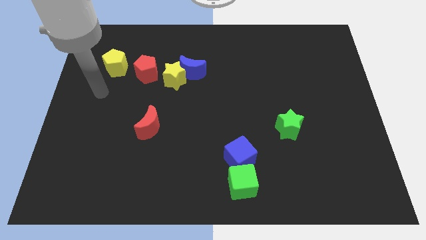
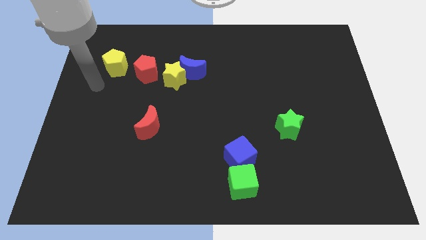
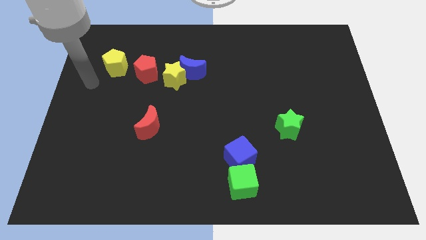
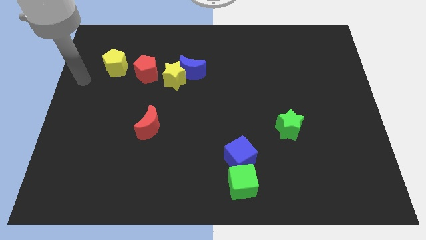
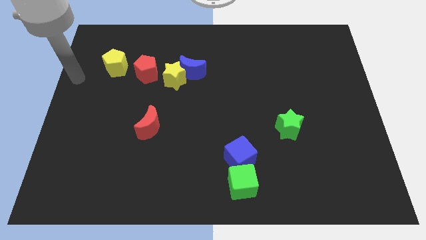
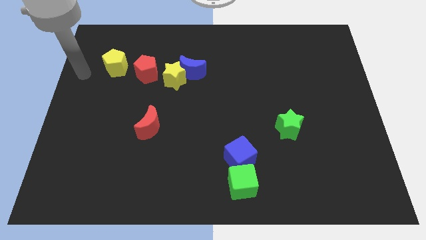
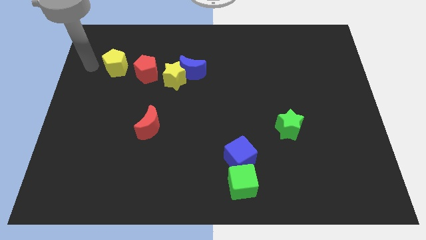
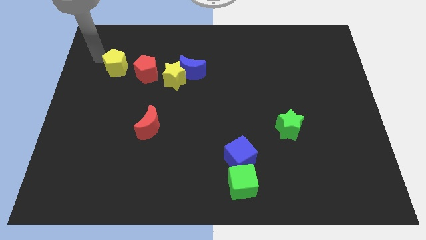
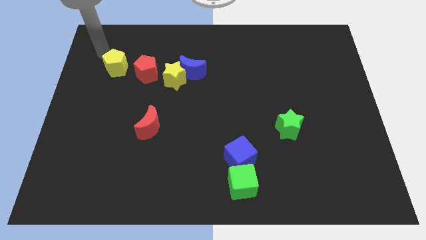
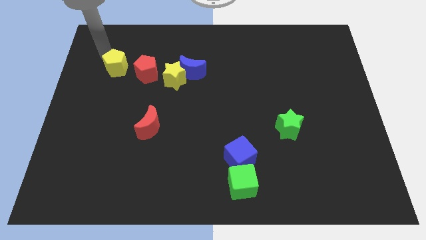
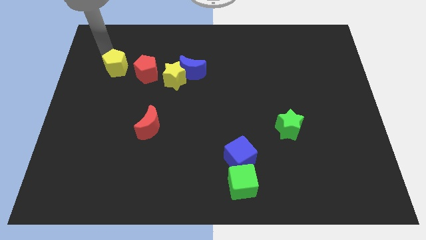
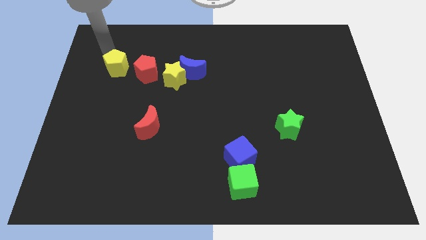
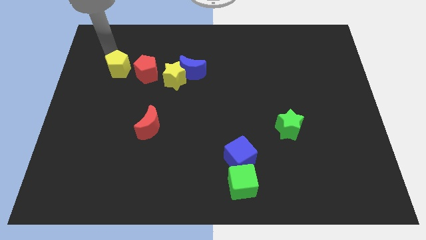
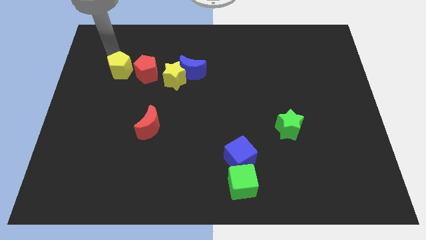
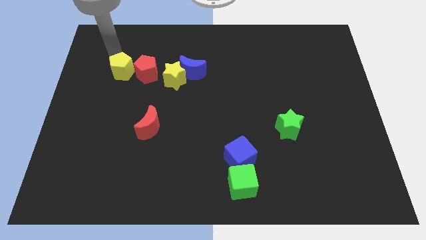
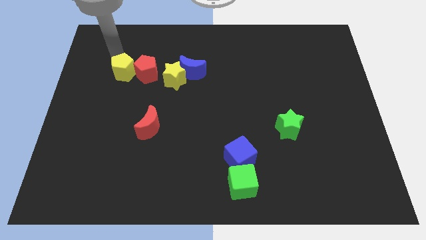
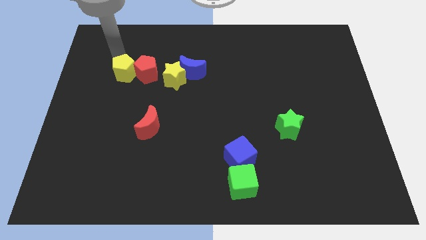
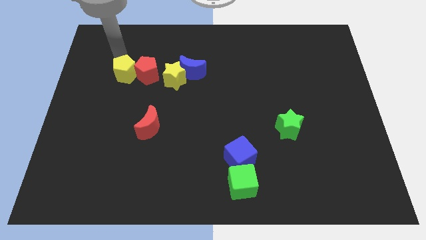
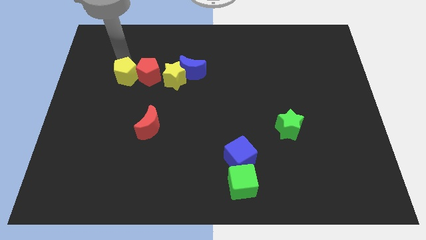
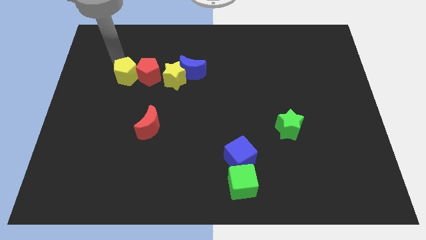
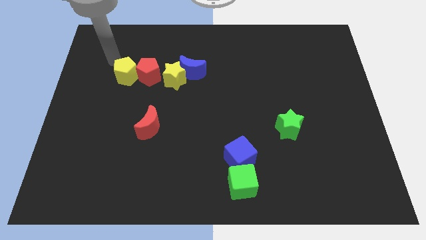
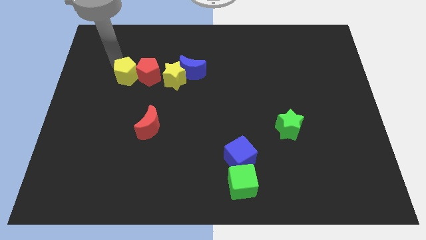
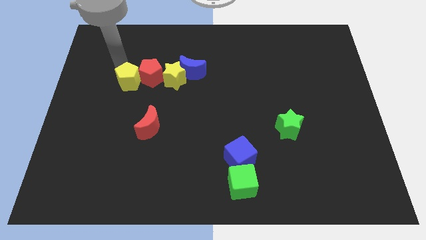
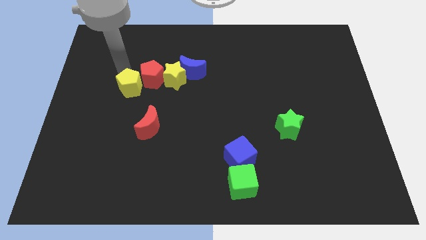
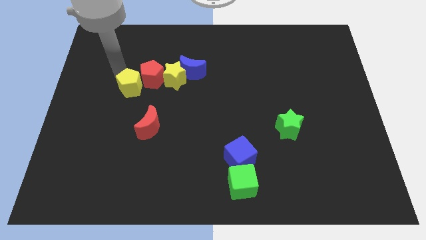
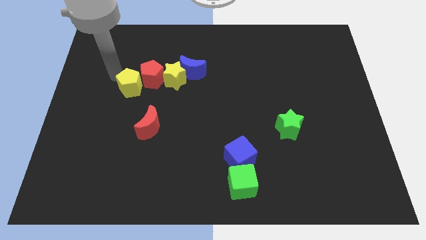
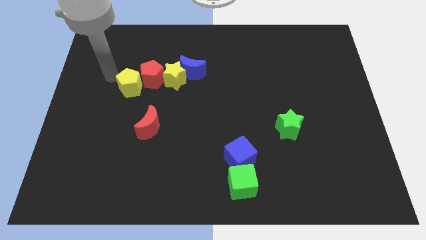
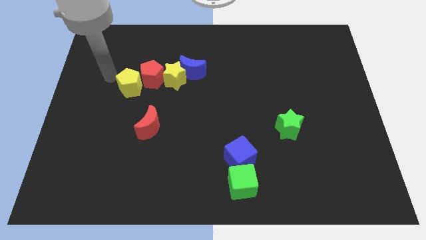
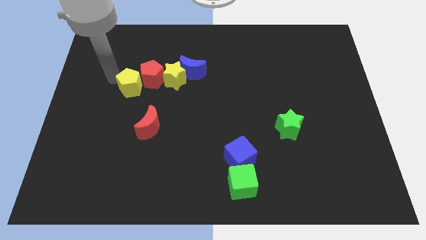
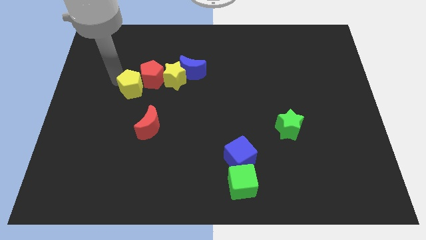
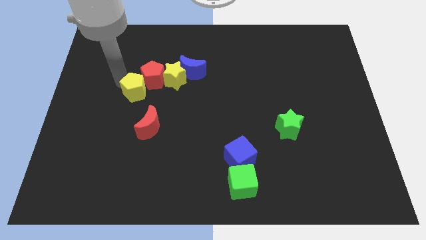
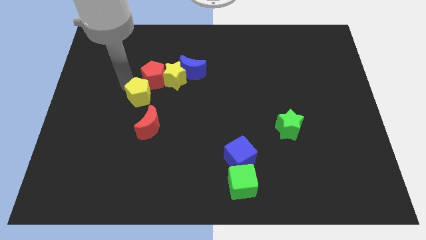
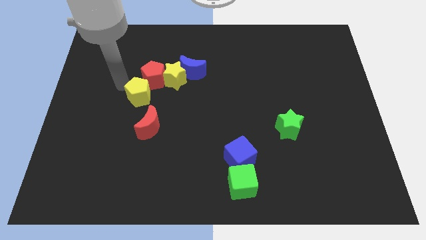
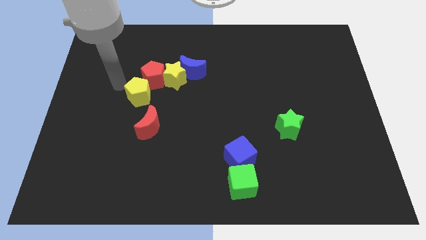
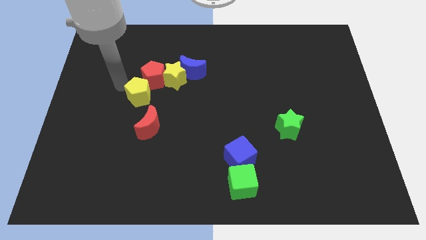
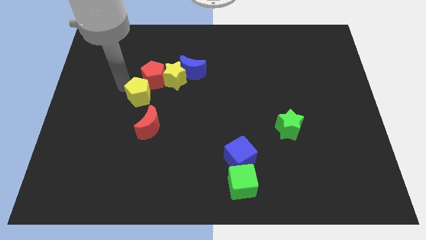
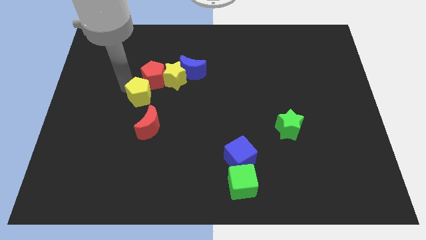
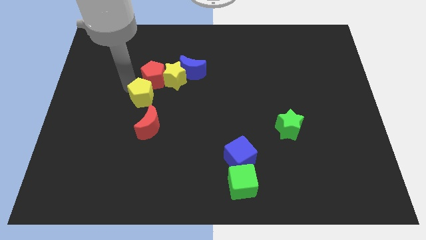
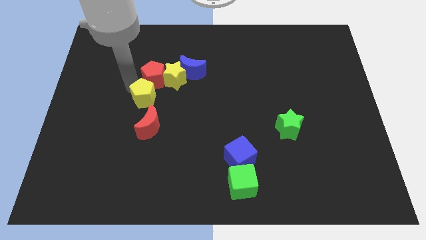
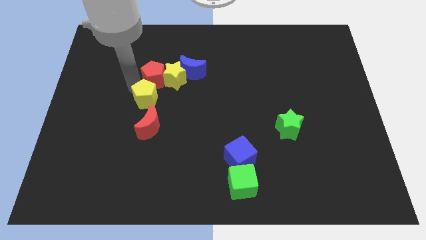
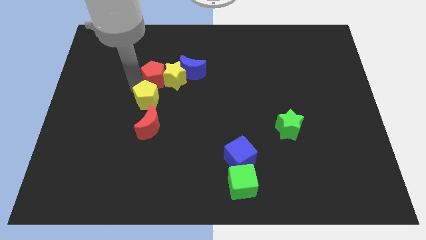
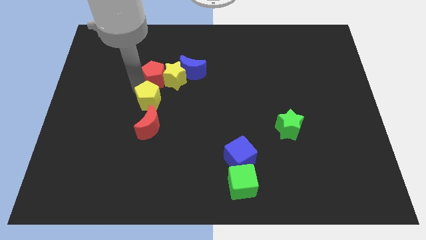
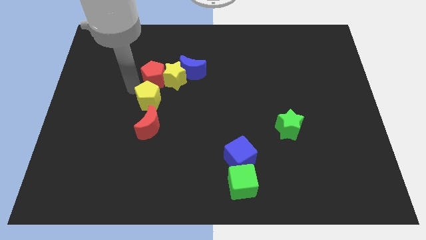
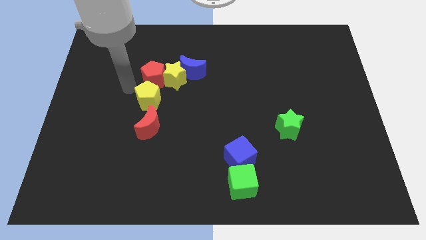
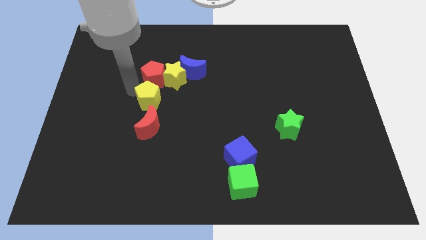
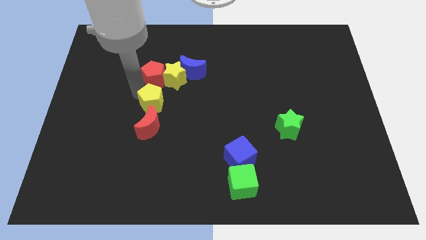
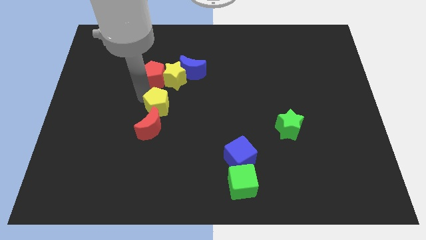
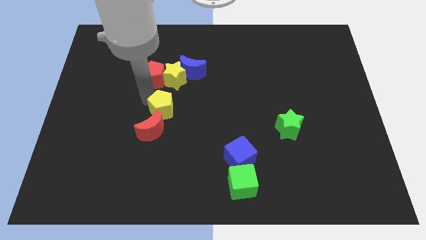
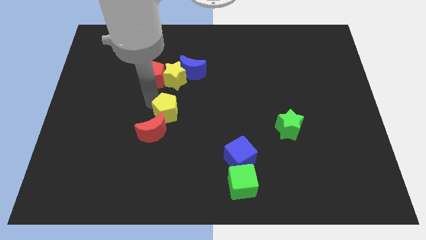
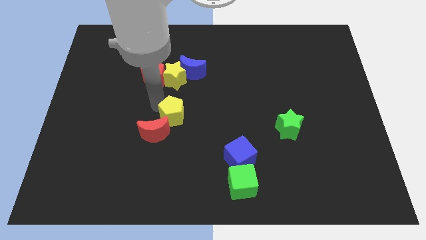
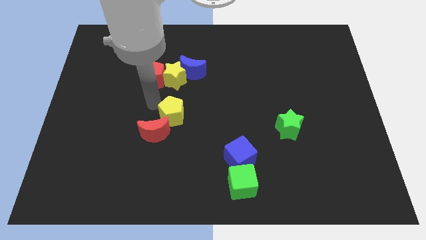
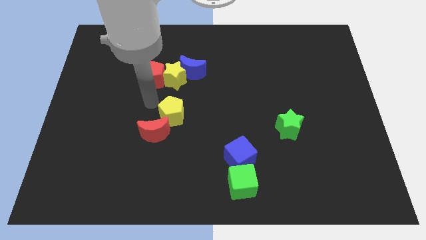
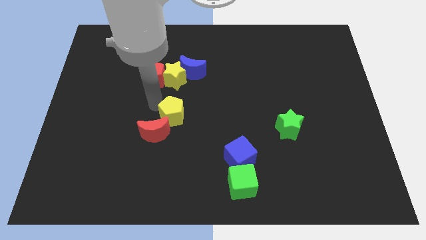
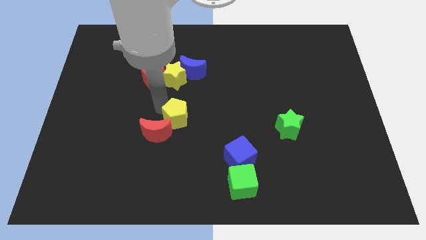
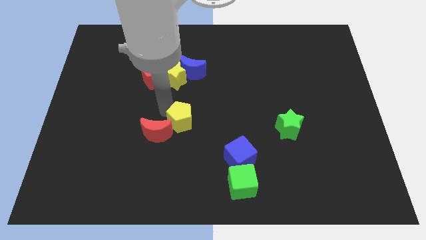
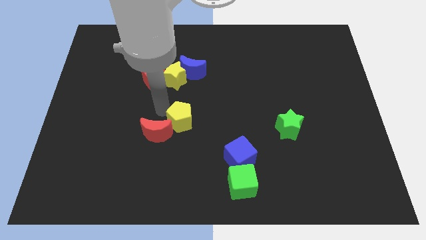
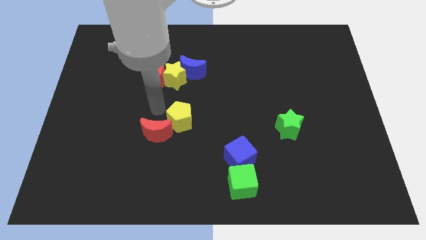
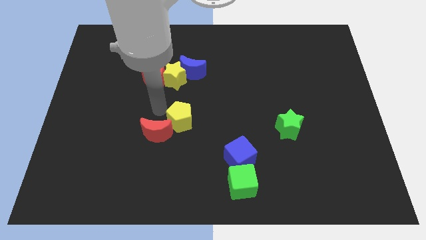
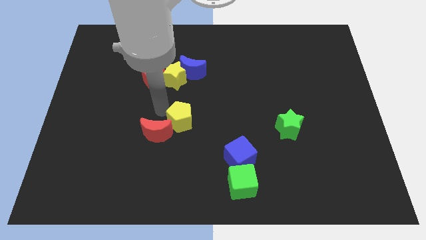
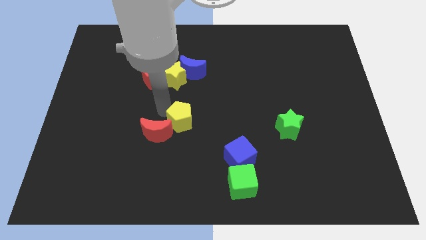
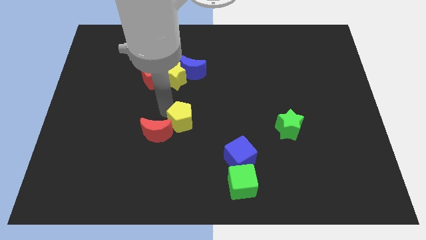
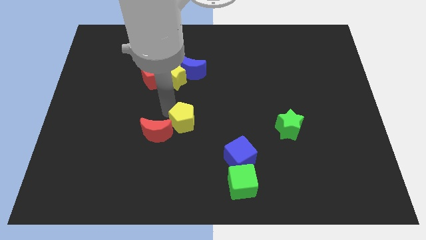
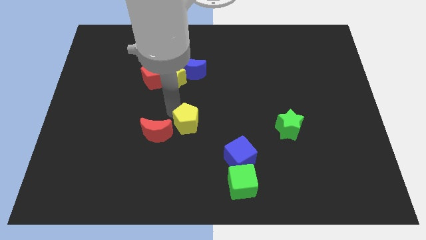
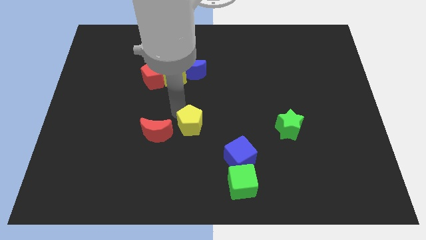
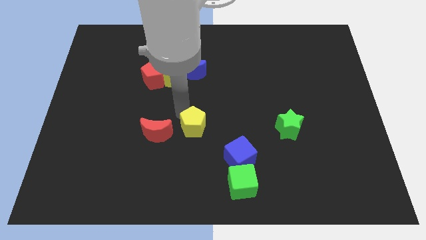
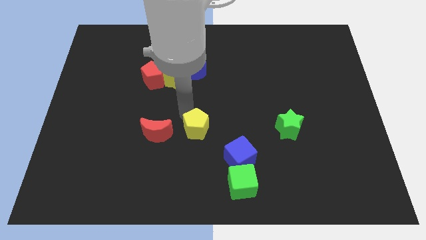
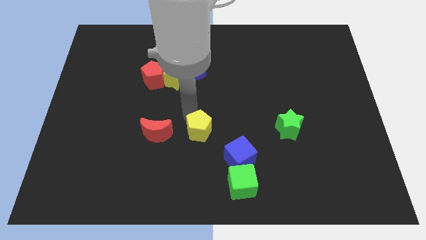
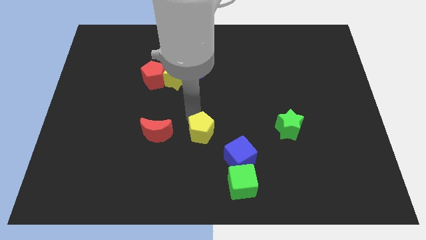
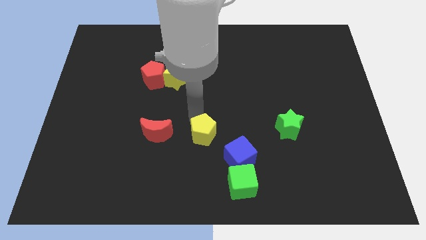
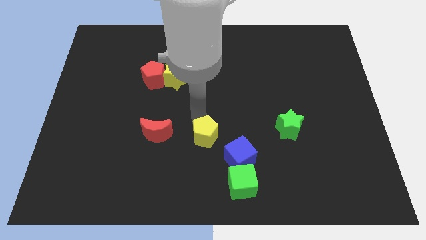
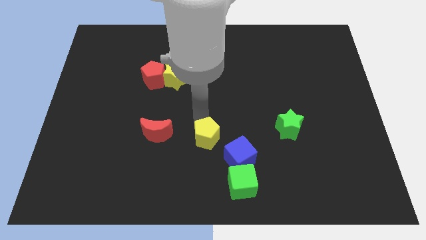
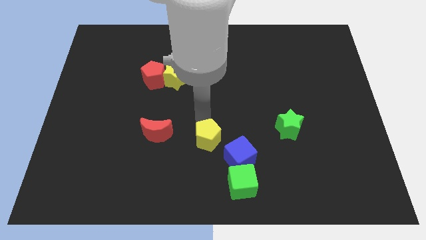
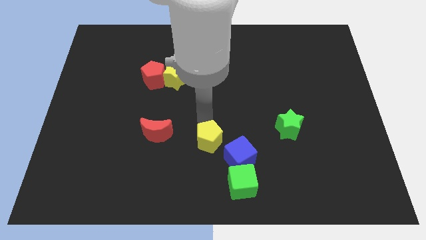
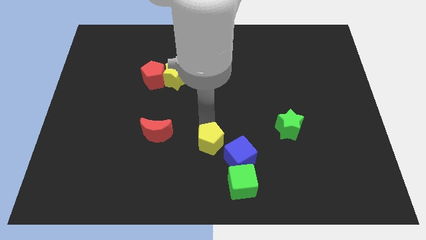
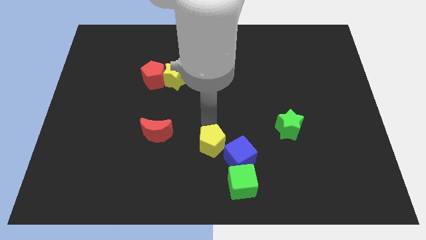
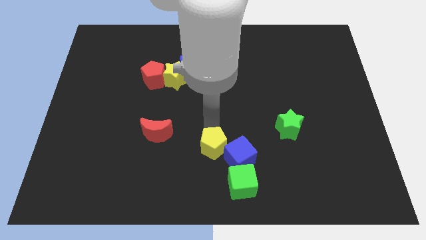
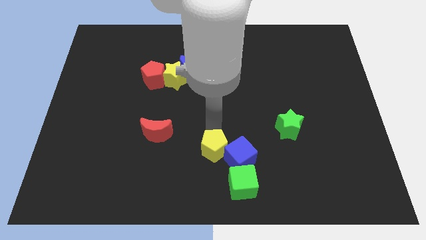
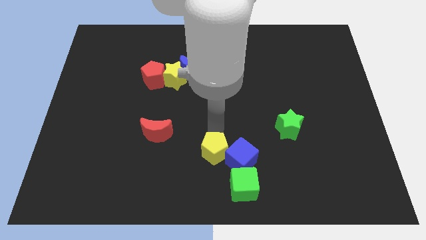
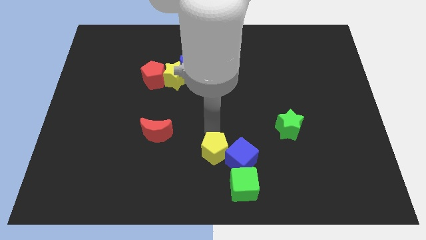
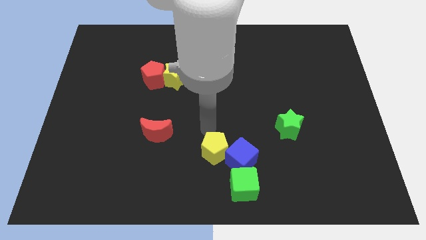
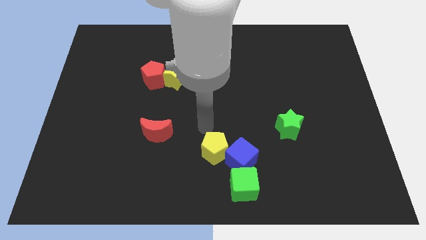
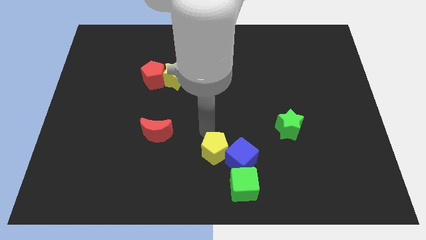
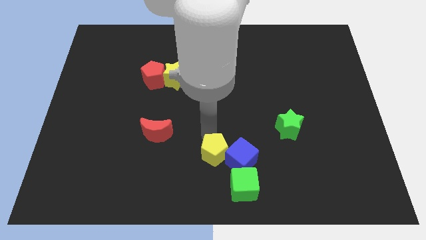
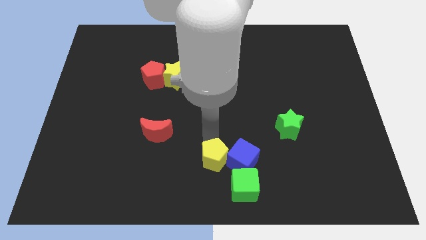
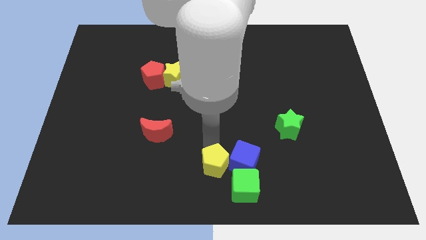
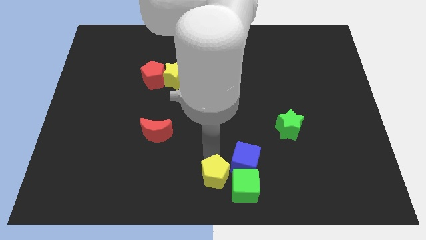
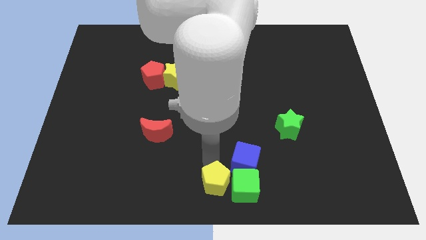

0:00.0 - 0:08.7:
put the yellow pentagon towards the green cube
